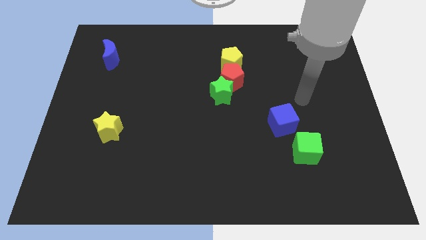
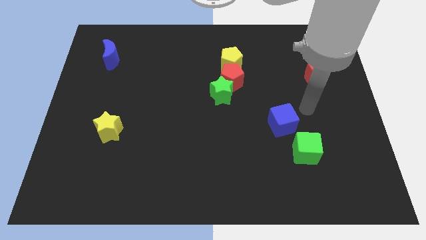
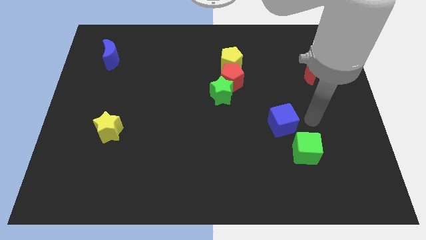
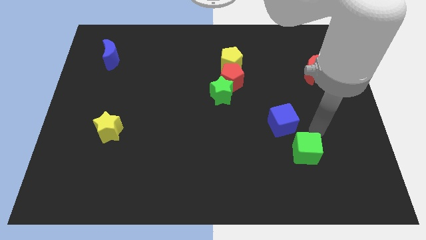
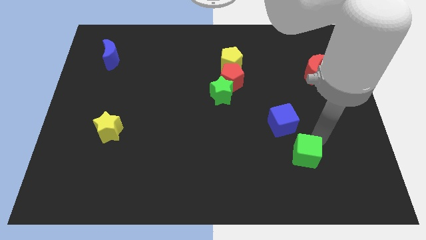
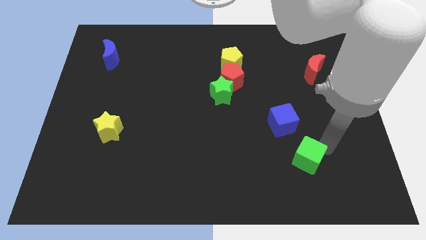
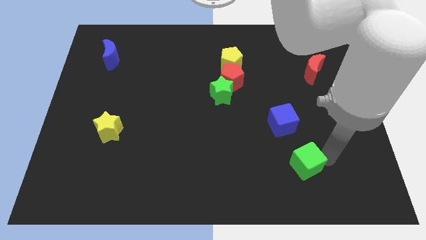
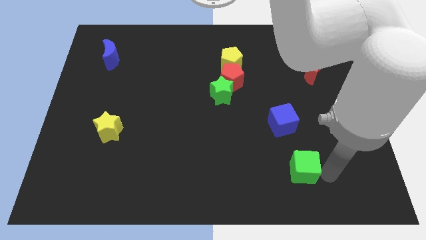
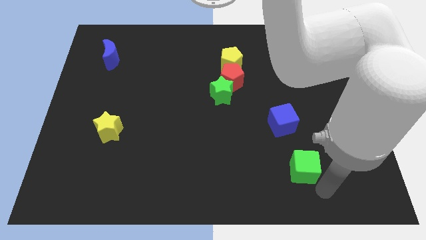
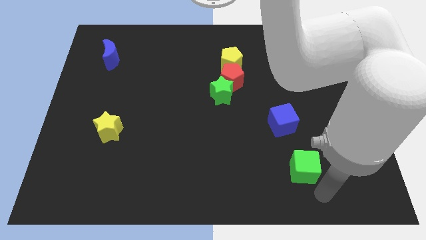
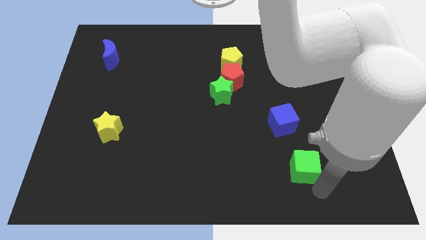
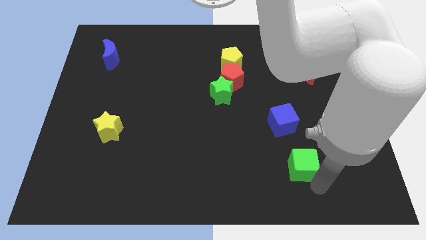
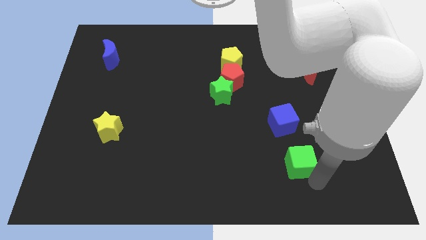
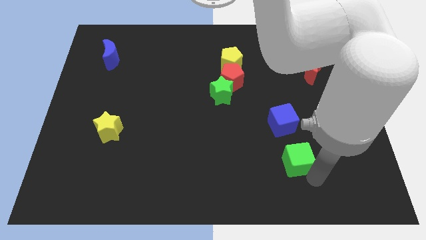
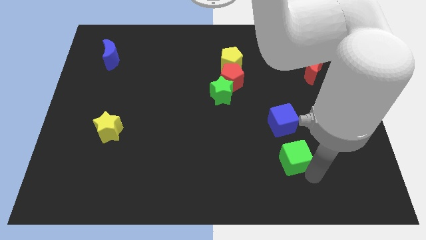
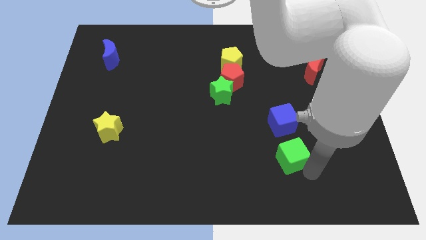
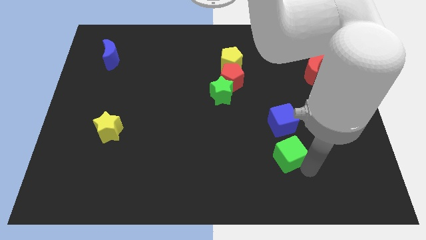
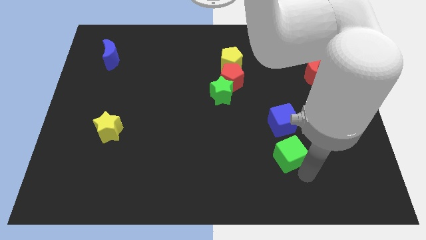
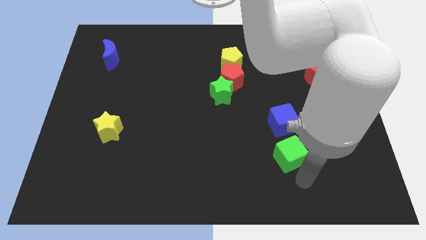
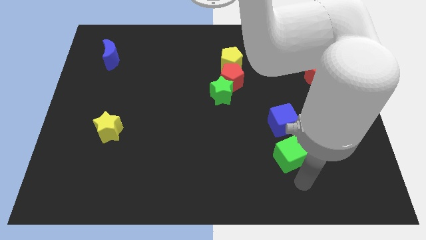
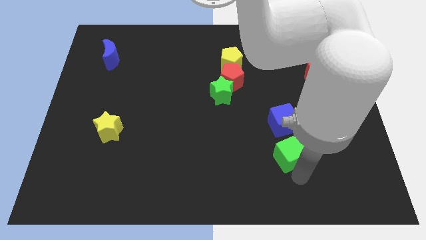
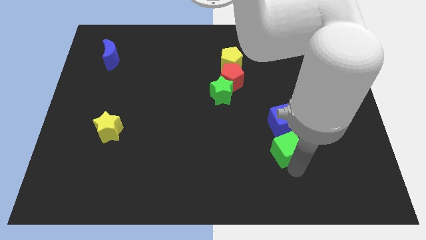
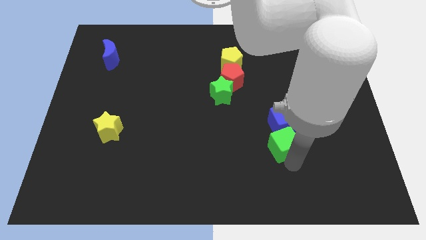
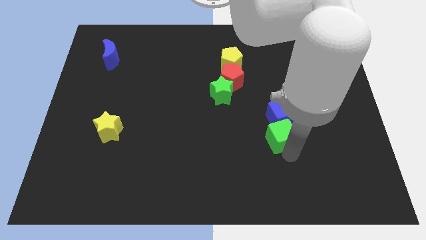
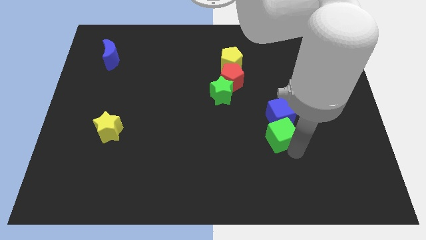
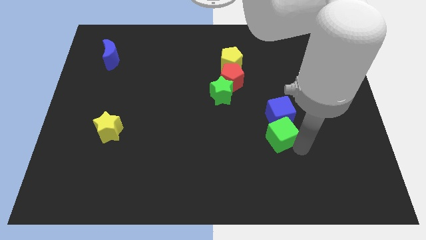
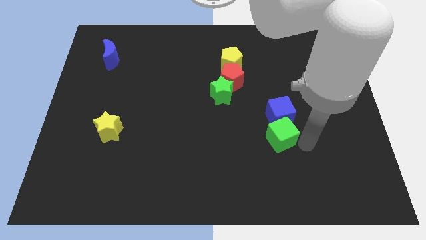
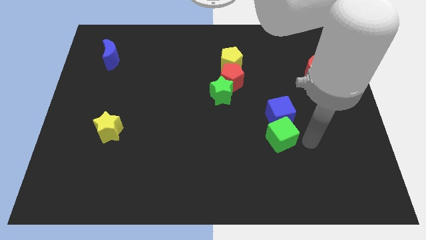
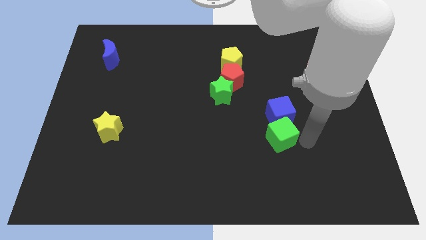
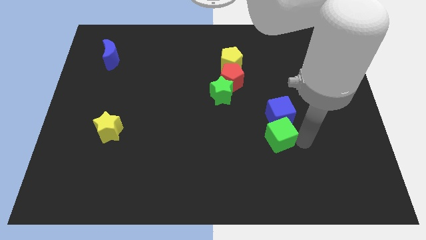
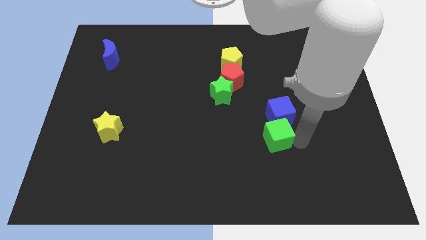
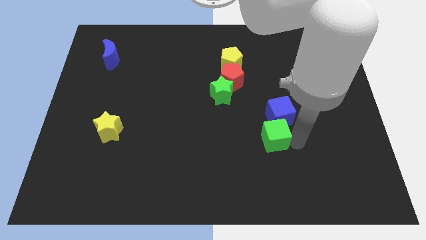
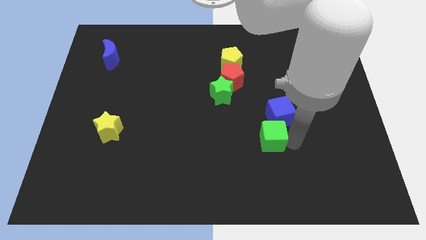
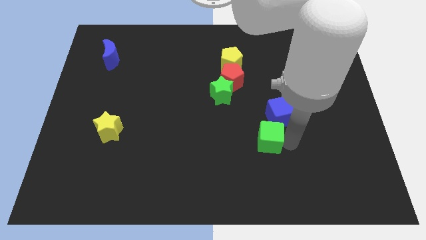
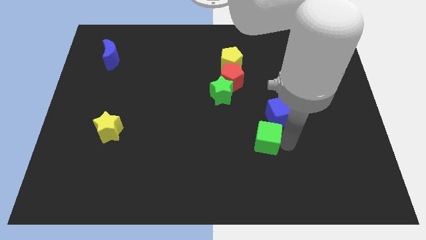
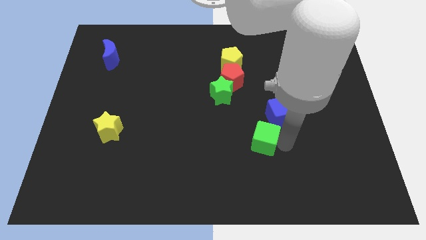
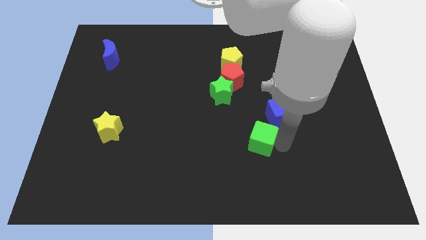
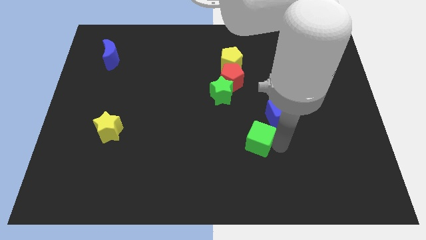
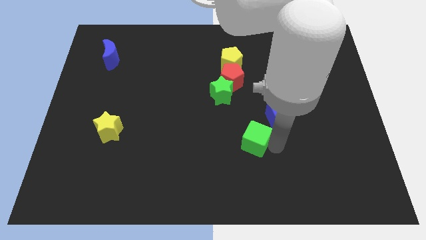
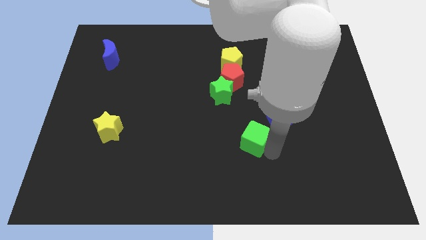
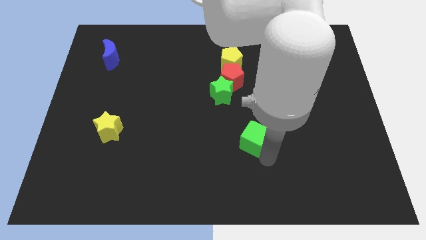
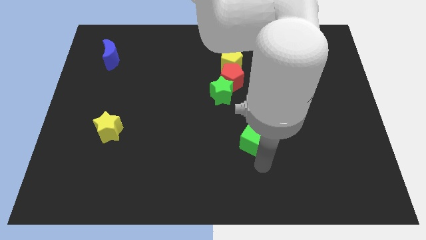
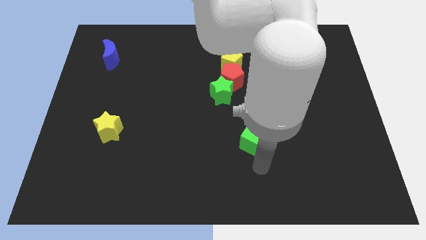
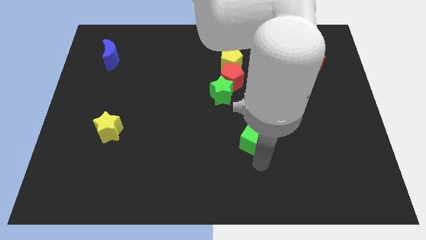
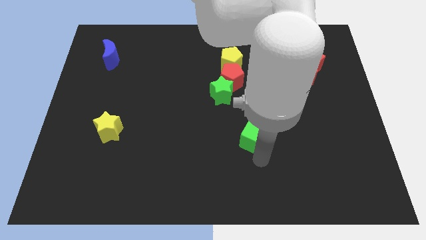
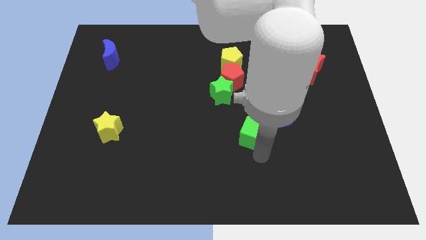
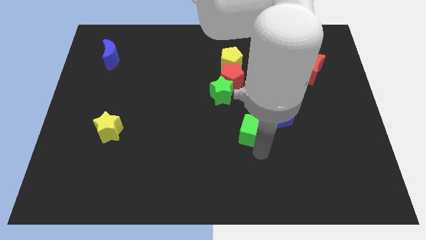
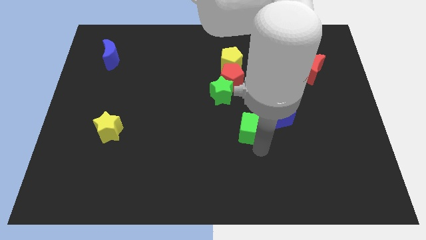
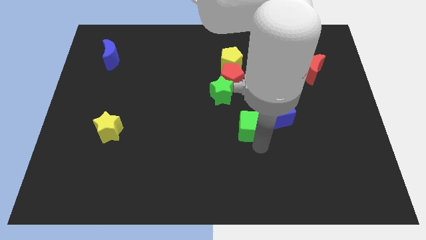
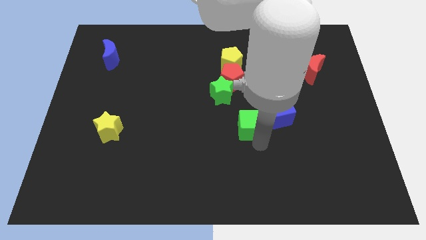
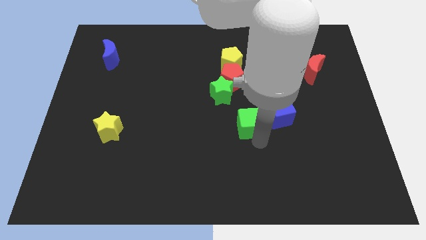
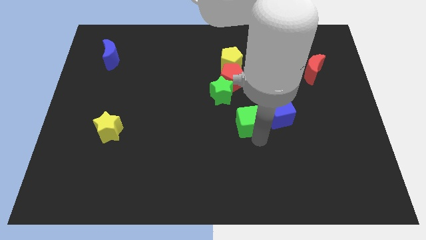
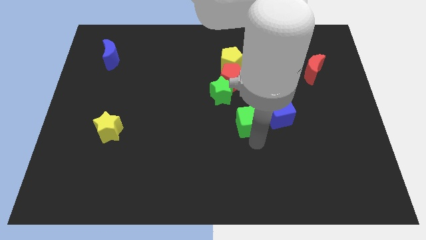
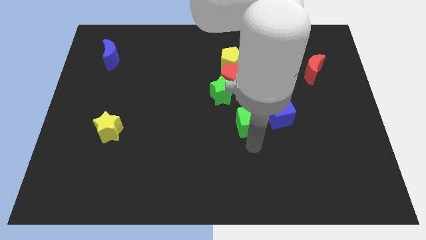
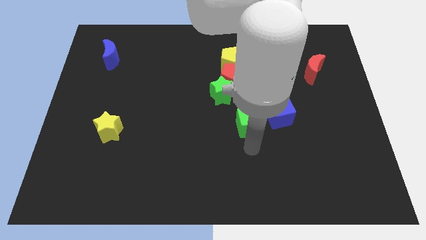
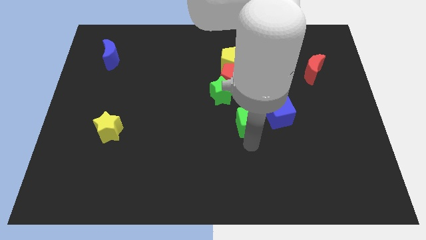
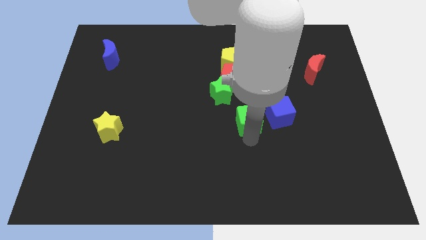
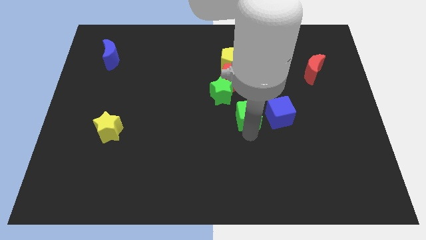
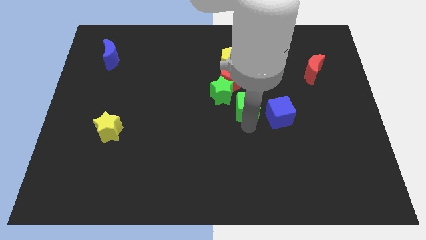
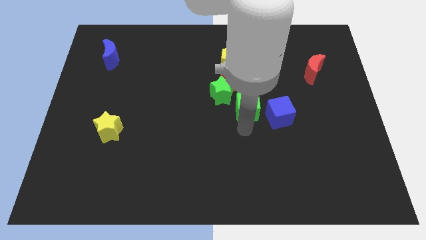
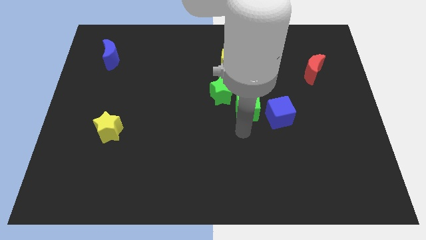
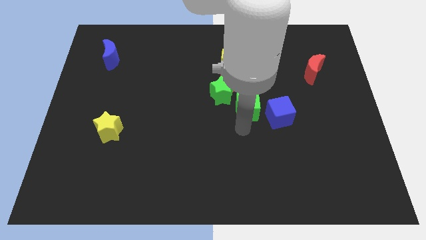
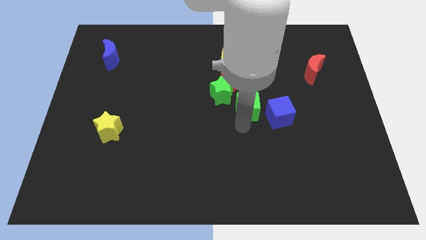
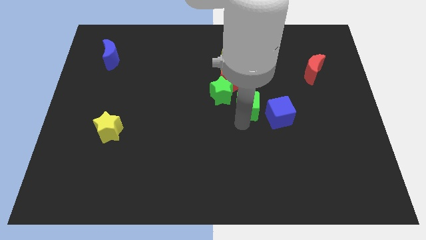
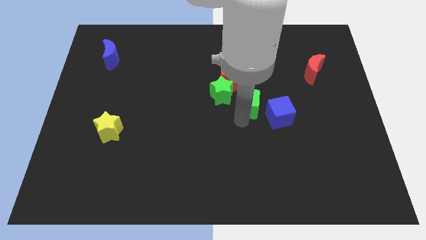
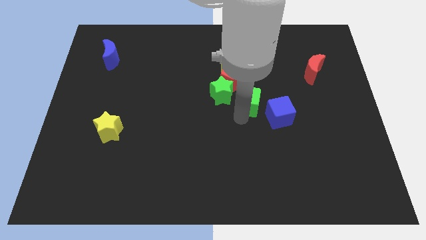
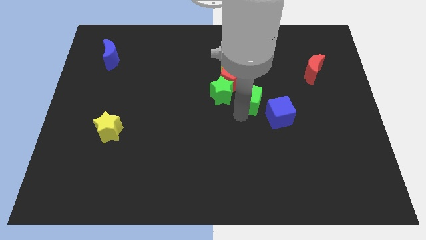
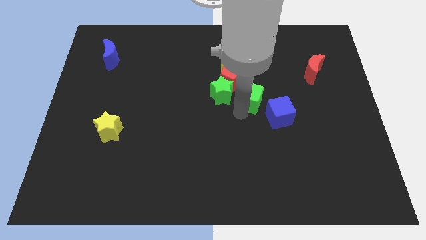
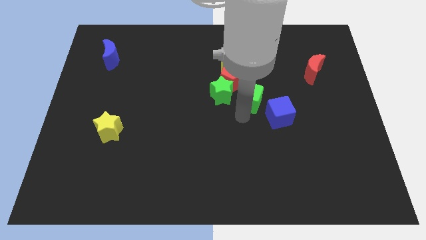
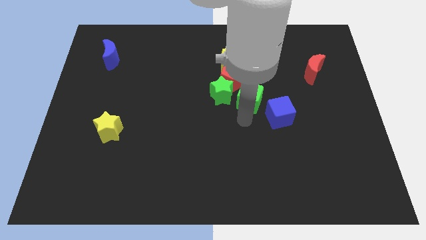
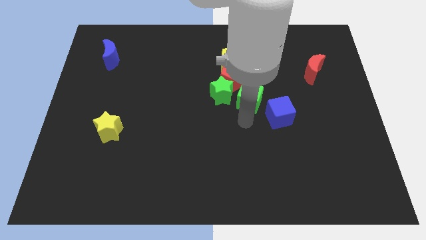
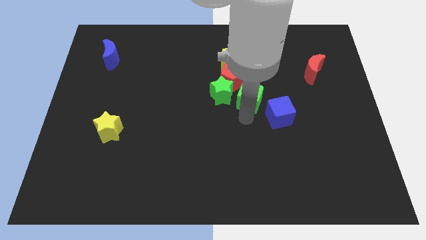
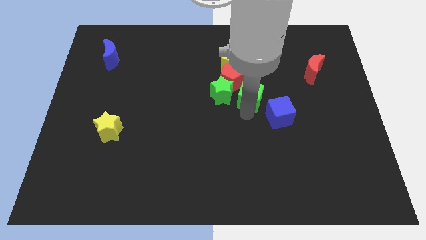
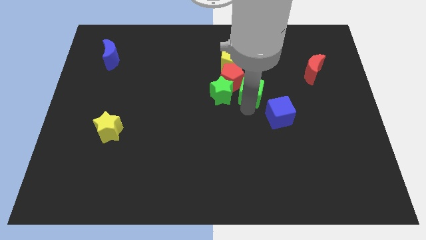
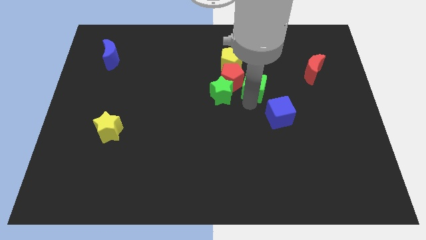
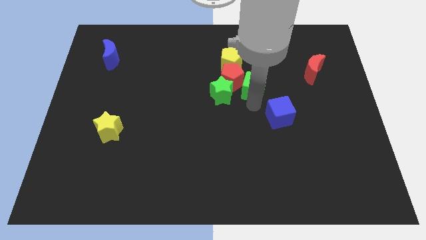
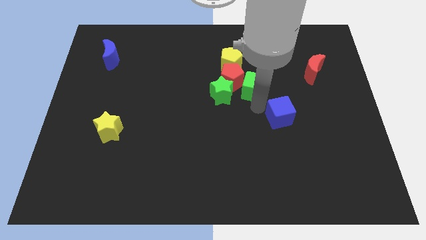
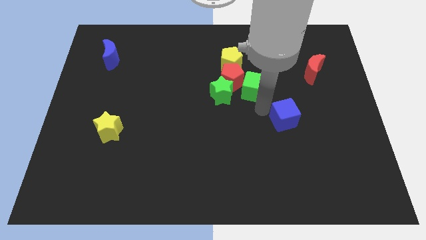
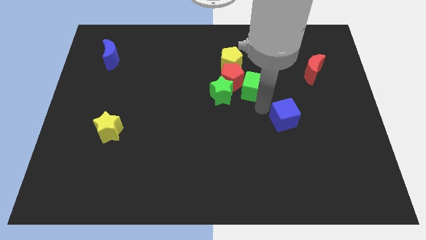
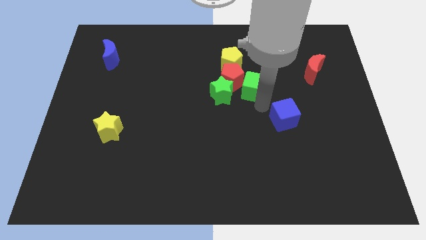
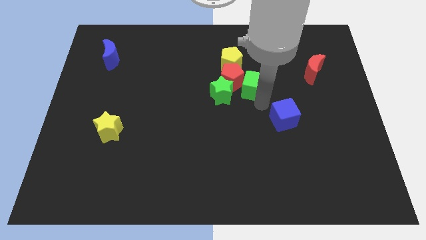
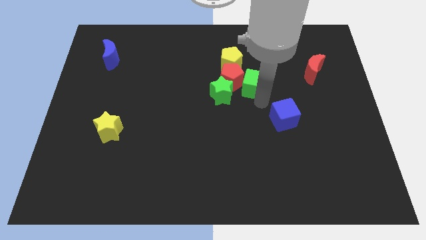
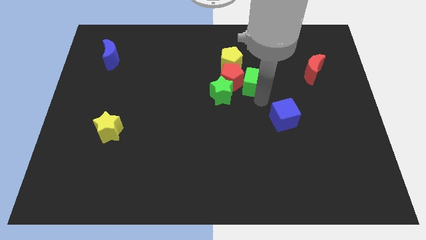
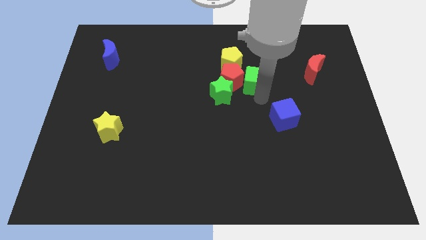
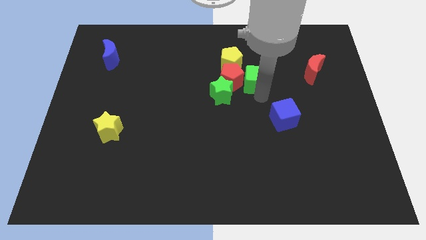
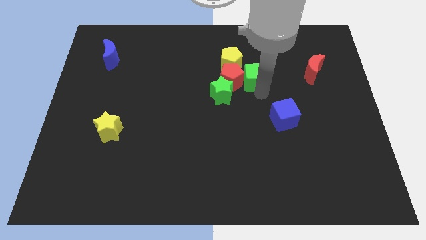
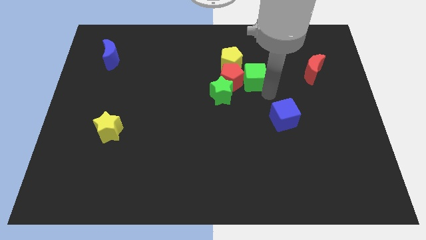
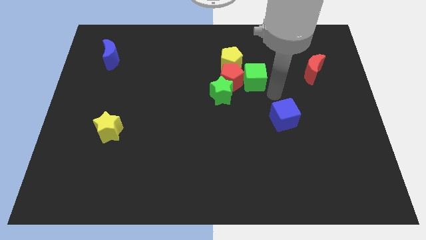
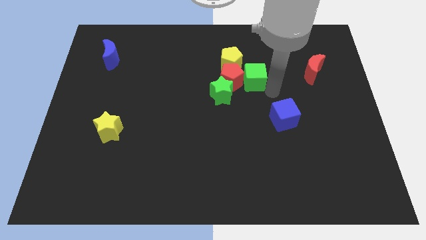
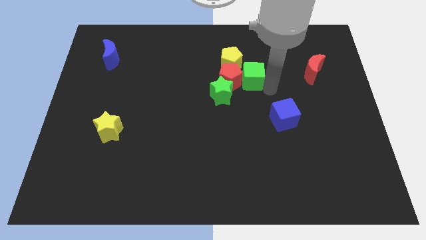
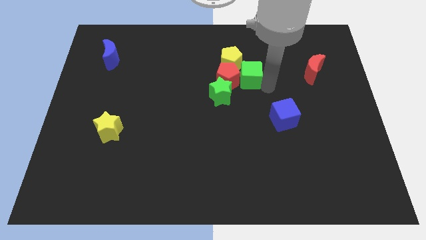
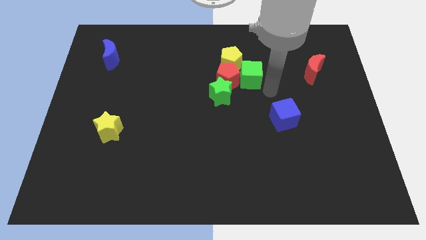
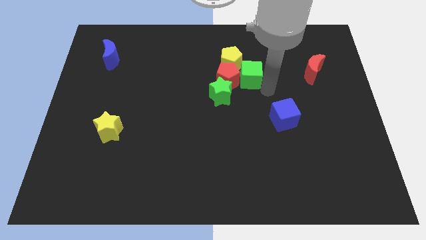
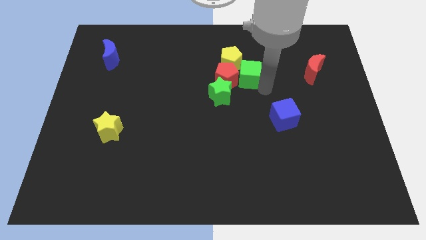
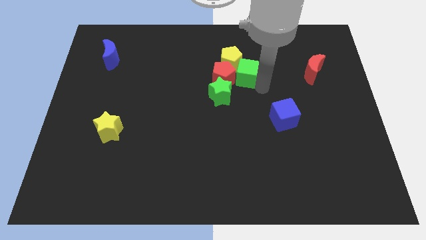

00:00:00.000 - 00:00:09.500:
push the green cube to the yellow pentagon
